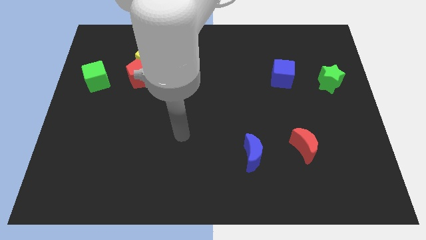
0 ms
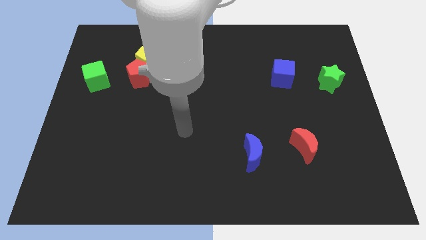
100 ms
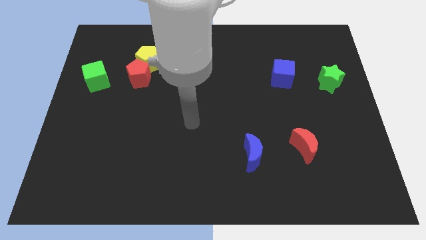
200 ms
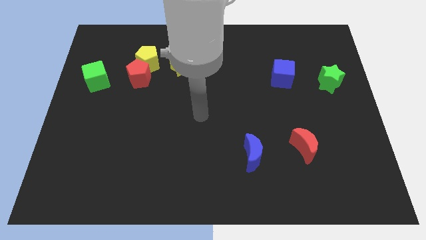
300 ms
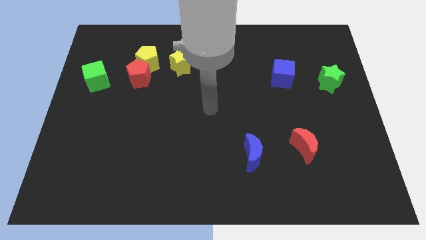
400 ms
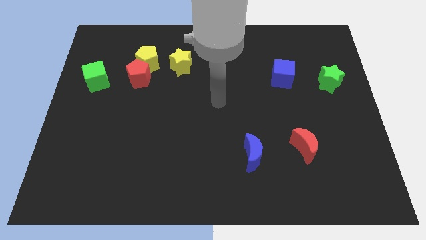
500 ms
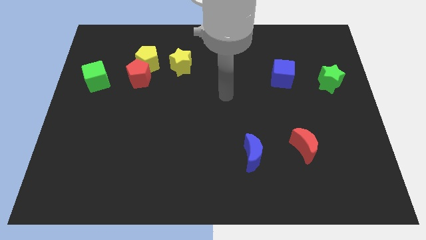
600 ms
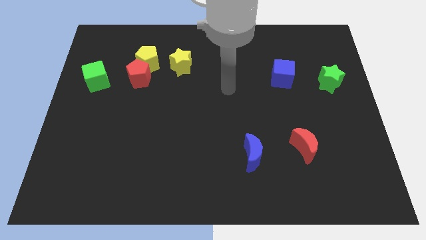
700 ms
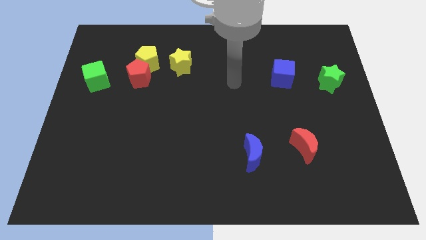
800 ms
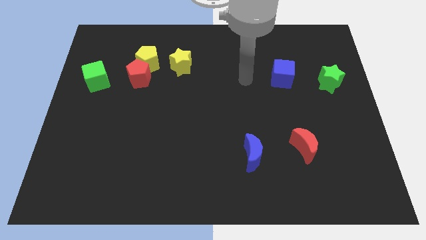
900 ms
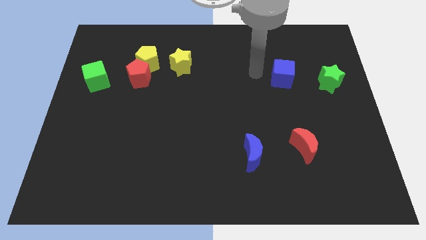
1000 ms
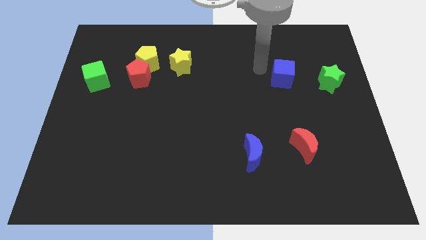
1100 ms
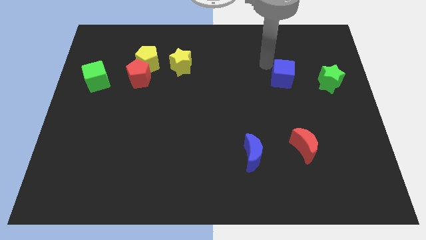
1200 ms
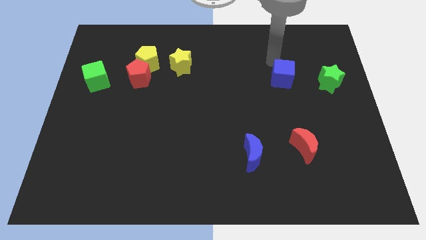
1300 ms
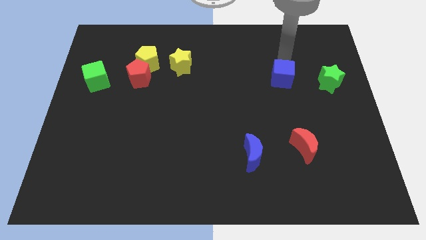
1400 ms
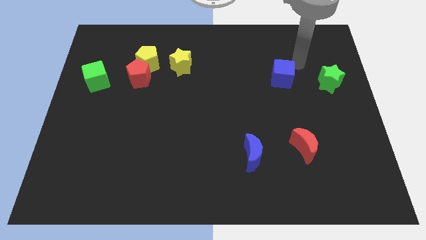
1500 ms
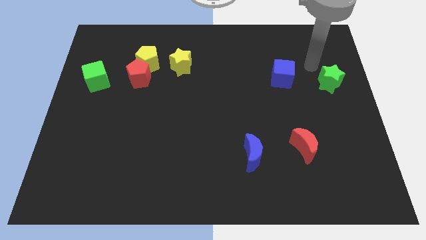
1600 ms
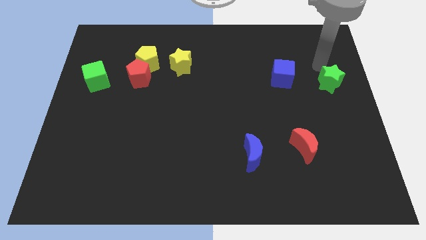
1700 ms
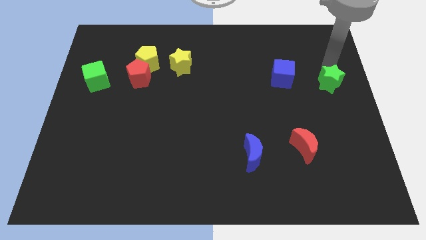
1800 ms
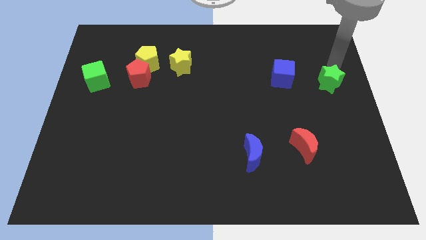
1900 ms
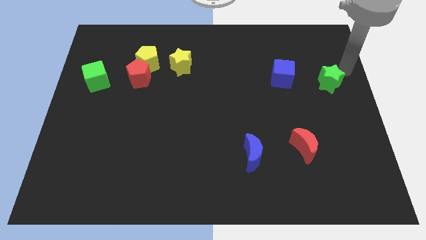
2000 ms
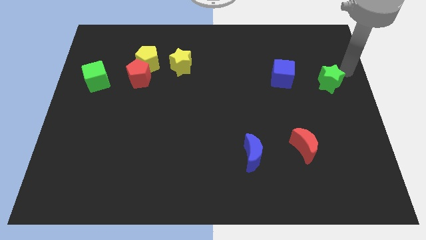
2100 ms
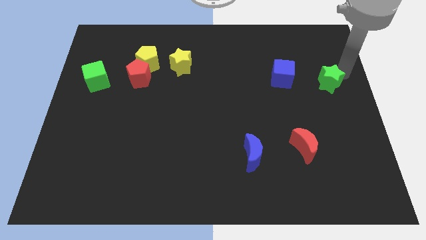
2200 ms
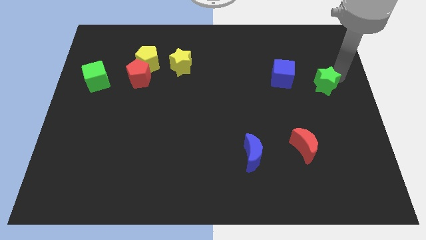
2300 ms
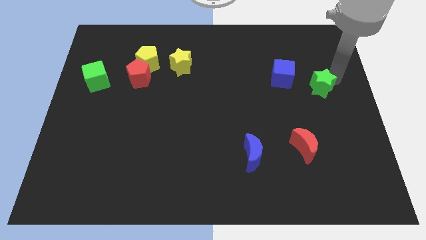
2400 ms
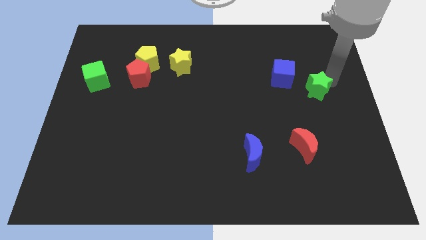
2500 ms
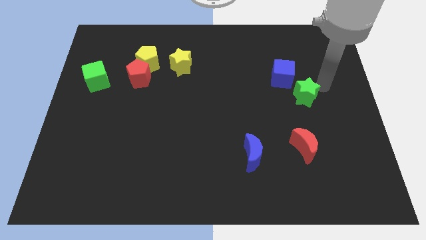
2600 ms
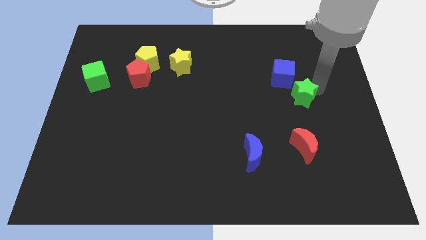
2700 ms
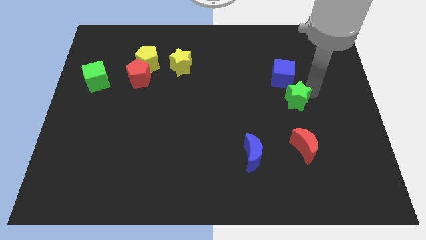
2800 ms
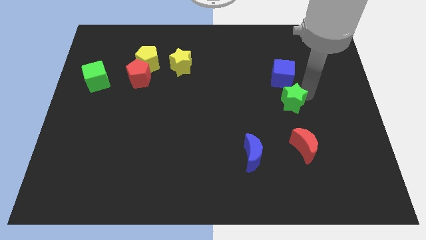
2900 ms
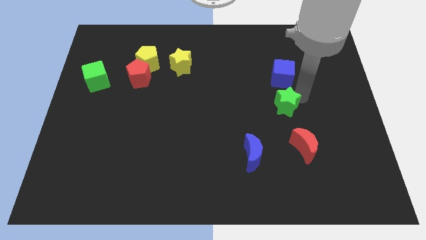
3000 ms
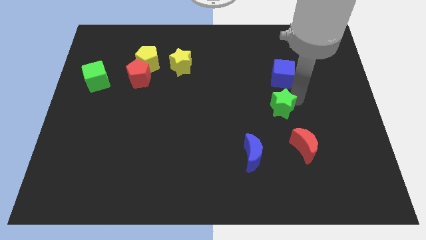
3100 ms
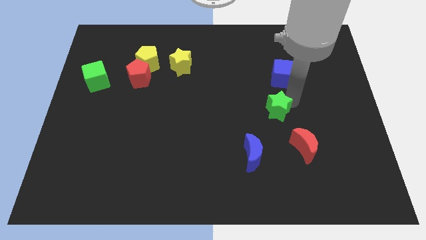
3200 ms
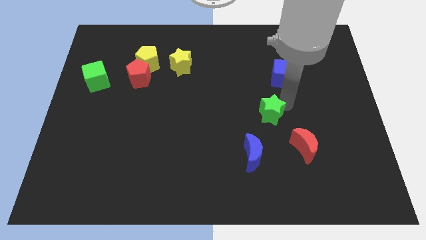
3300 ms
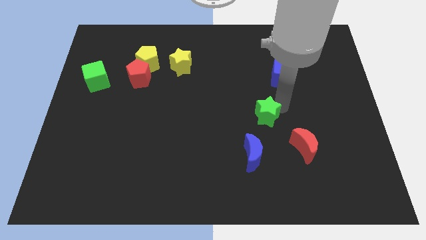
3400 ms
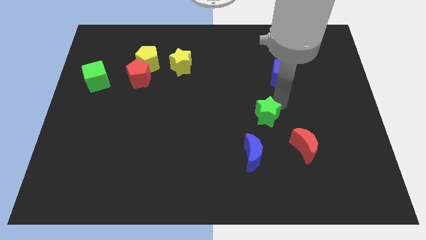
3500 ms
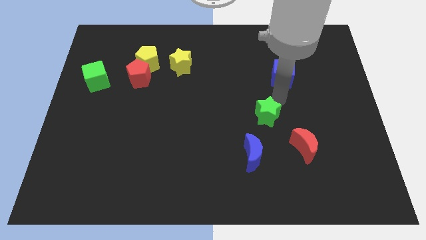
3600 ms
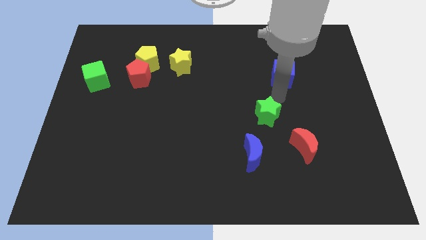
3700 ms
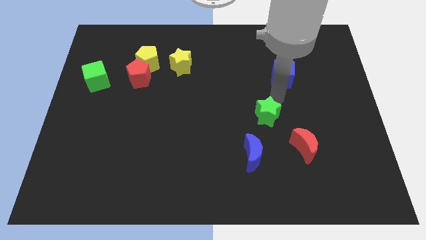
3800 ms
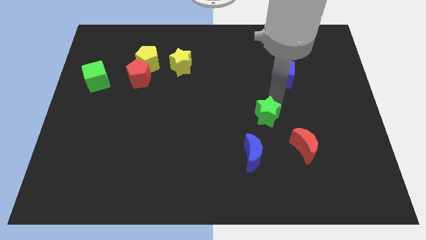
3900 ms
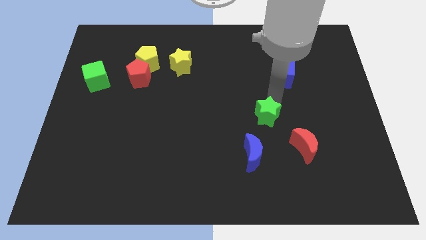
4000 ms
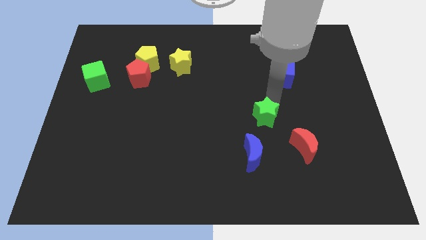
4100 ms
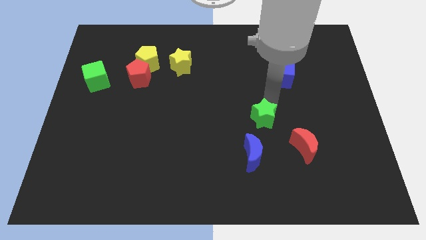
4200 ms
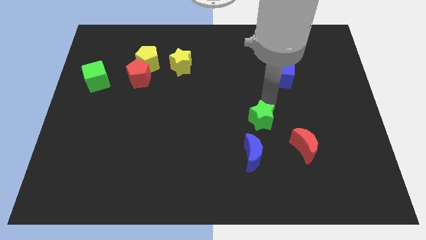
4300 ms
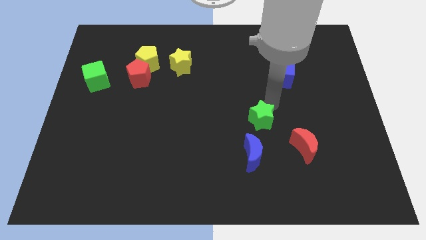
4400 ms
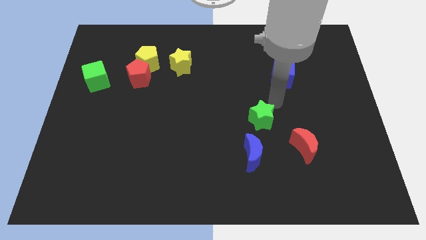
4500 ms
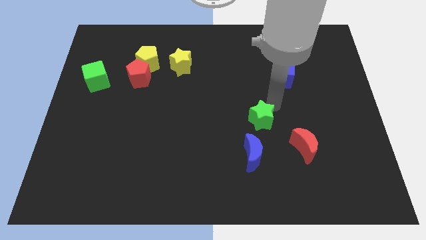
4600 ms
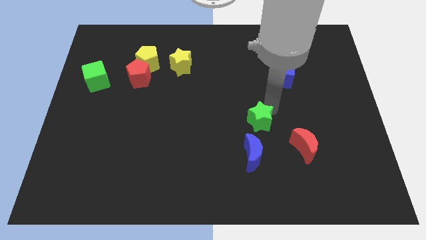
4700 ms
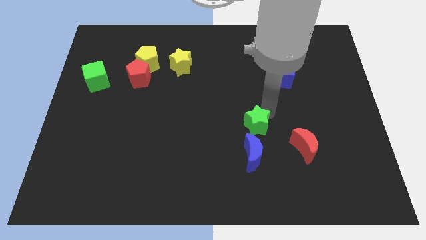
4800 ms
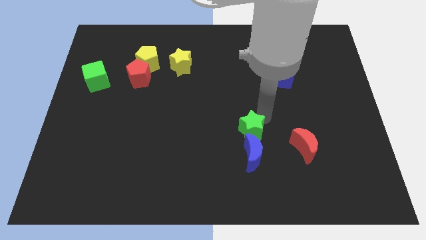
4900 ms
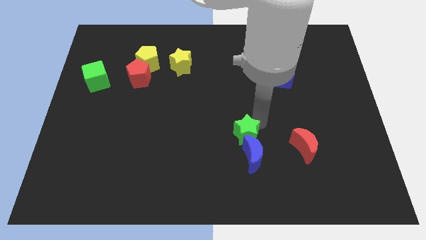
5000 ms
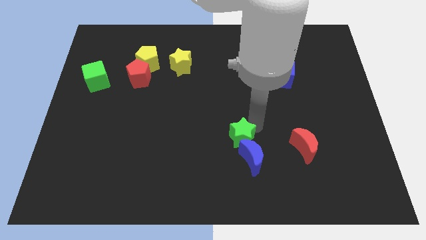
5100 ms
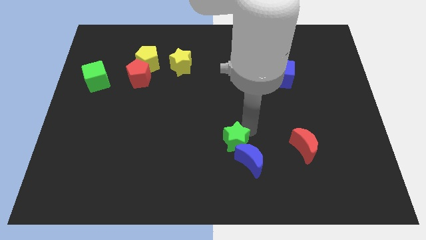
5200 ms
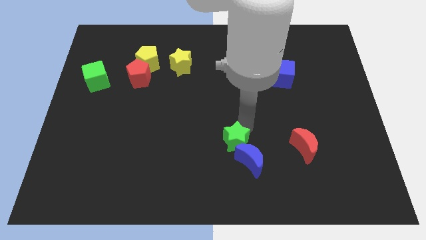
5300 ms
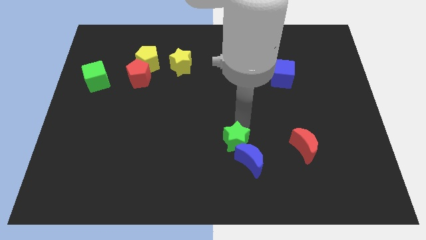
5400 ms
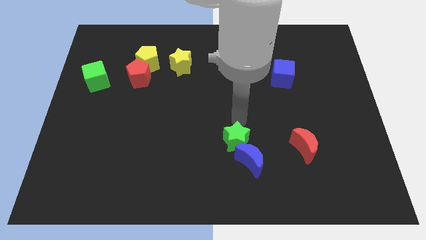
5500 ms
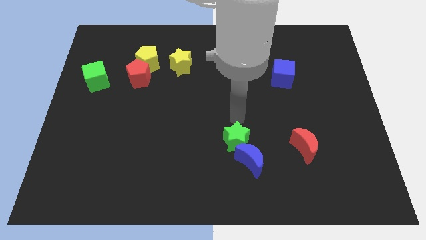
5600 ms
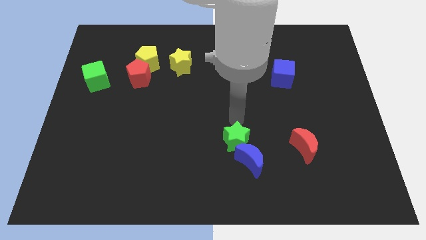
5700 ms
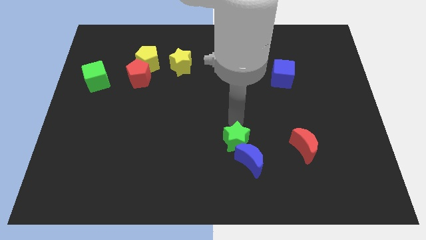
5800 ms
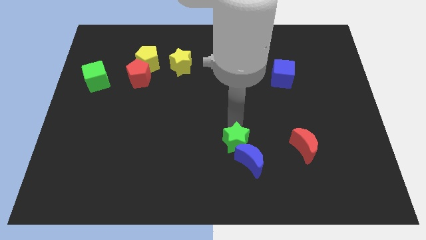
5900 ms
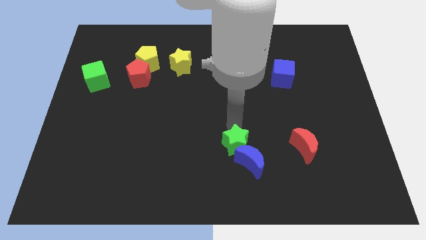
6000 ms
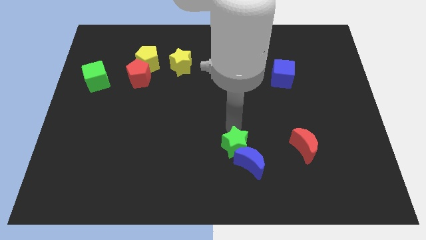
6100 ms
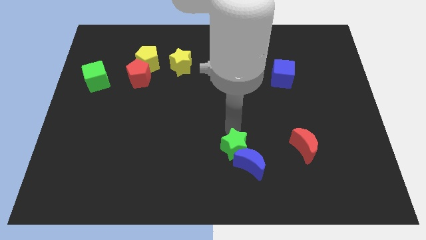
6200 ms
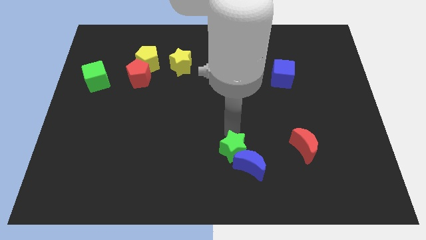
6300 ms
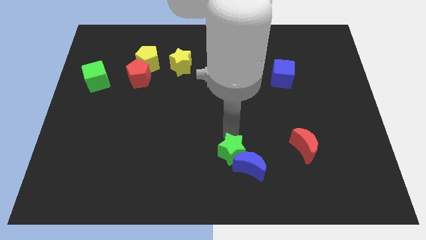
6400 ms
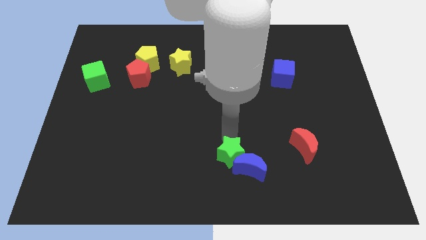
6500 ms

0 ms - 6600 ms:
push the green star to the bottom

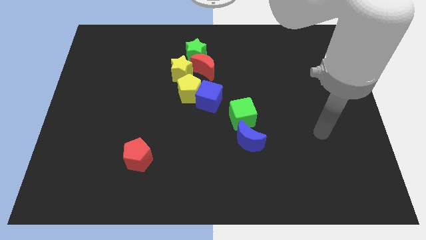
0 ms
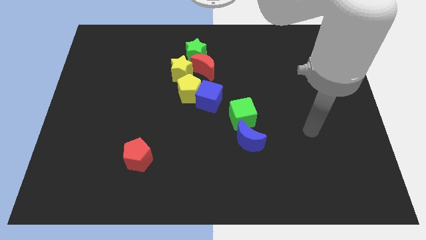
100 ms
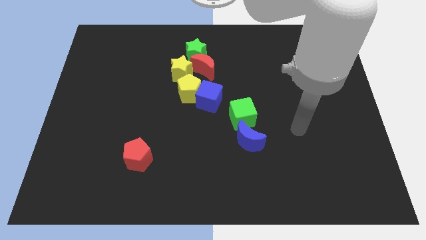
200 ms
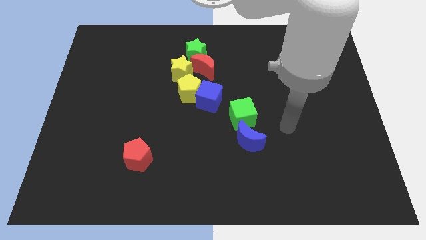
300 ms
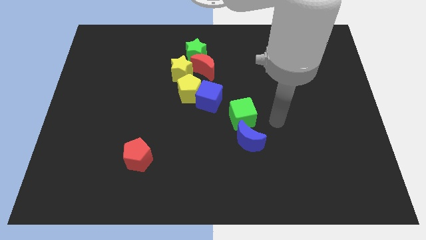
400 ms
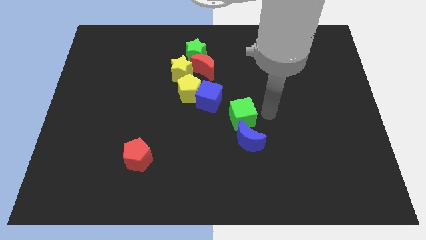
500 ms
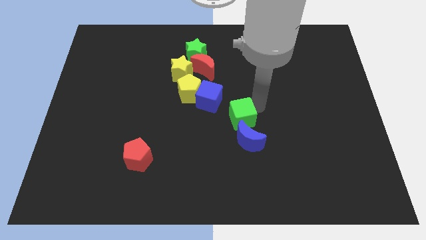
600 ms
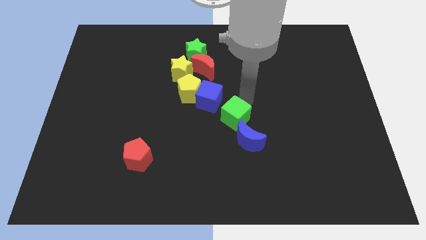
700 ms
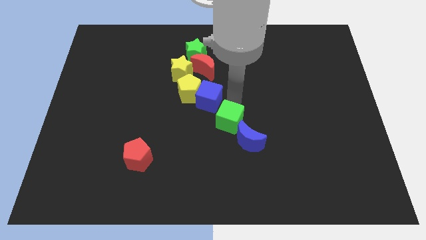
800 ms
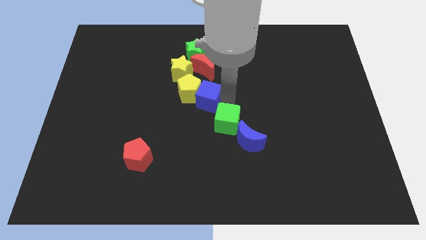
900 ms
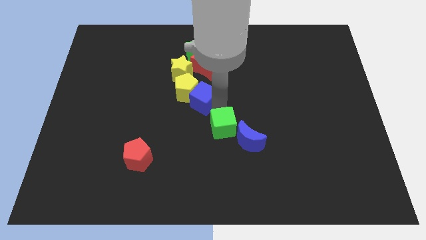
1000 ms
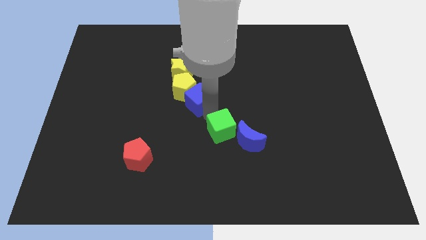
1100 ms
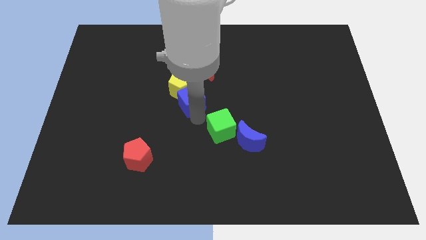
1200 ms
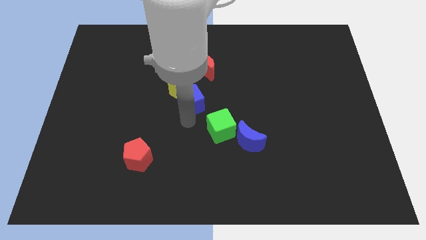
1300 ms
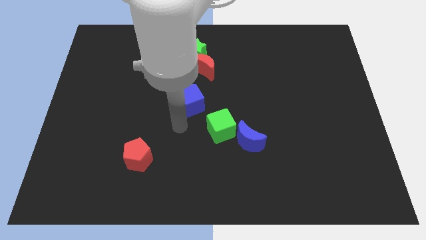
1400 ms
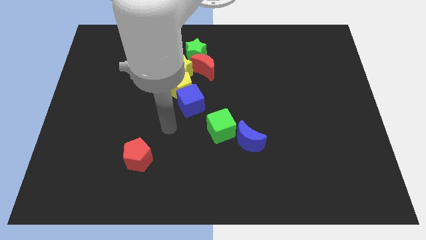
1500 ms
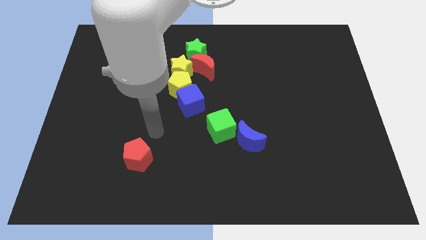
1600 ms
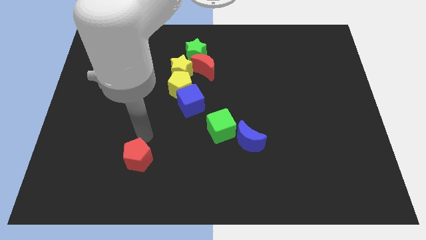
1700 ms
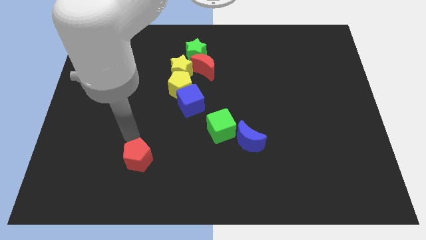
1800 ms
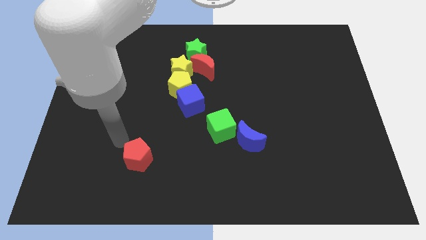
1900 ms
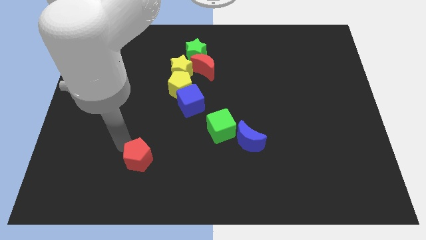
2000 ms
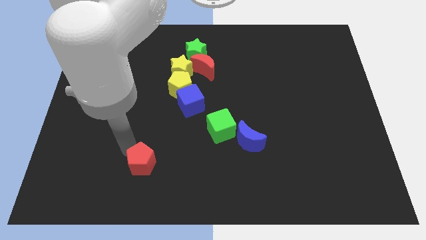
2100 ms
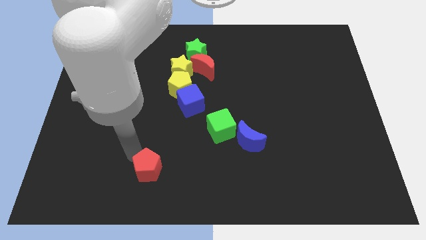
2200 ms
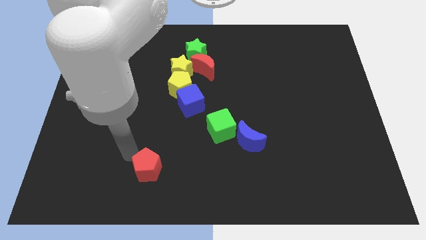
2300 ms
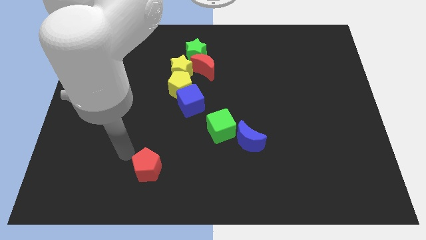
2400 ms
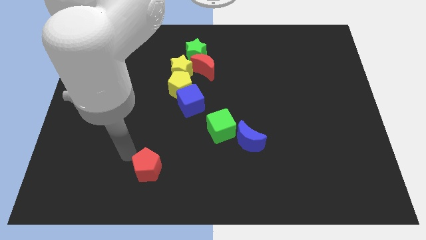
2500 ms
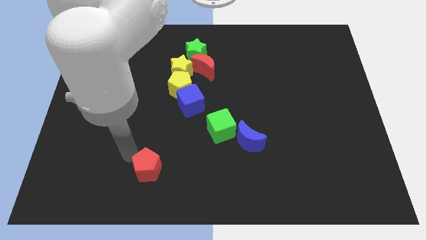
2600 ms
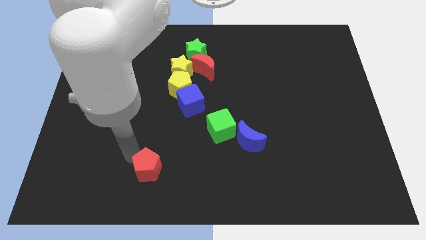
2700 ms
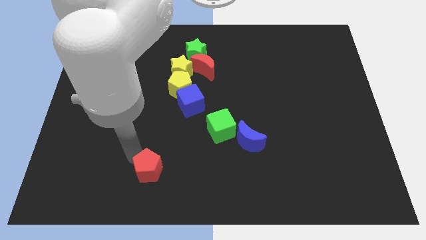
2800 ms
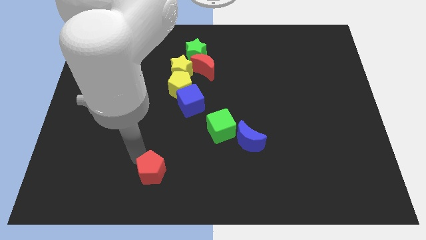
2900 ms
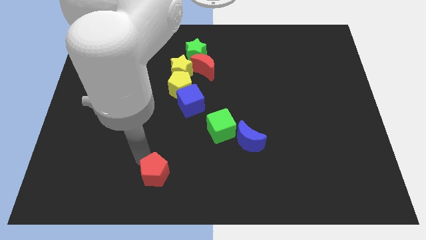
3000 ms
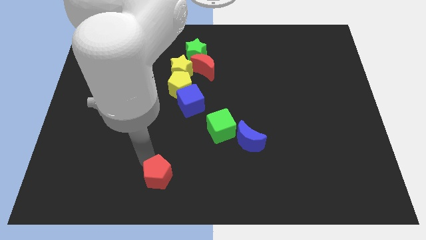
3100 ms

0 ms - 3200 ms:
move the red pentagon to the bottom
